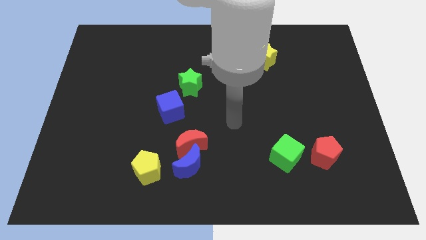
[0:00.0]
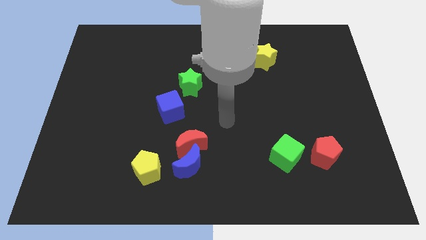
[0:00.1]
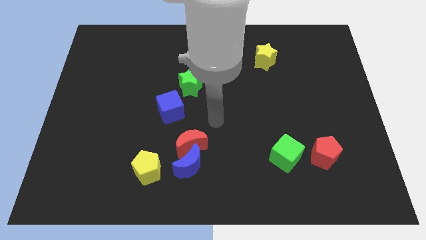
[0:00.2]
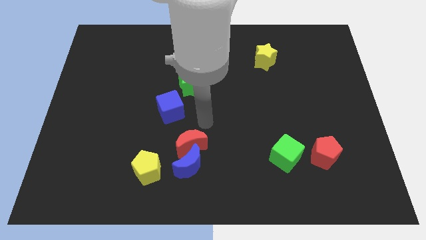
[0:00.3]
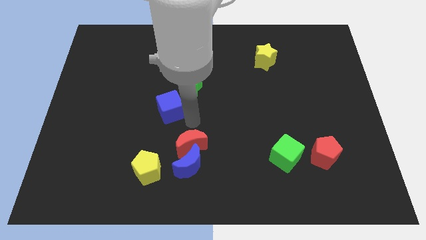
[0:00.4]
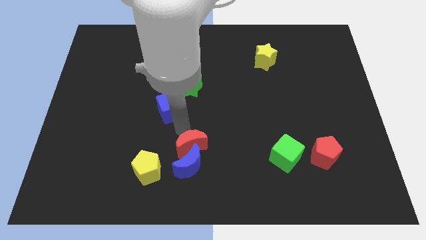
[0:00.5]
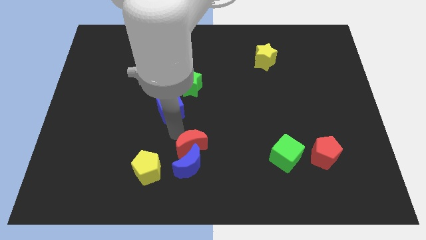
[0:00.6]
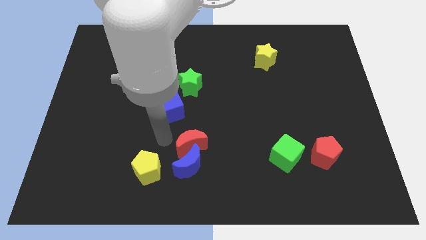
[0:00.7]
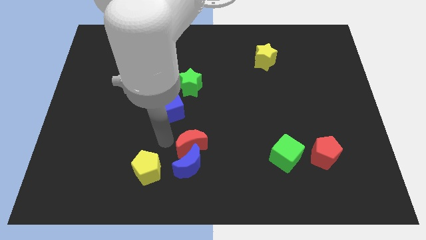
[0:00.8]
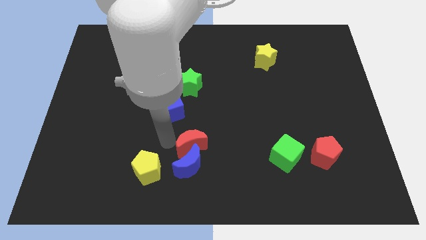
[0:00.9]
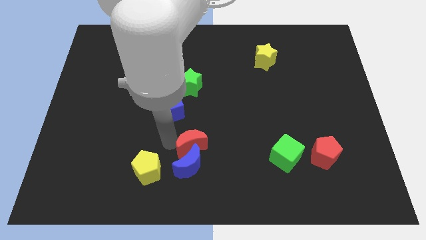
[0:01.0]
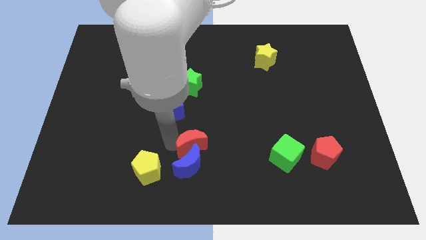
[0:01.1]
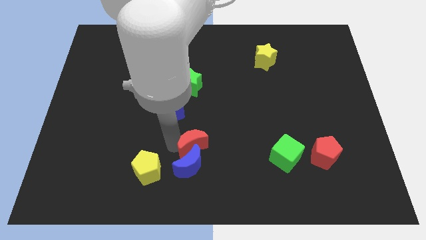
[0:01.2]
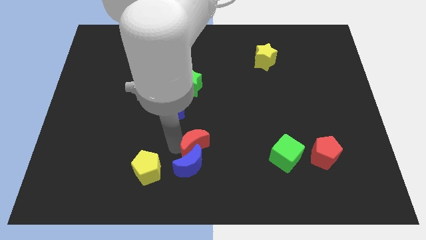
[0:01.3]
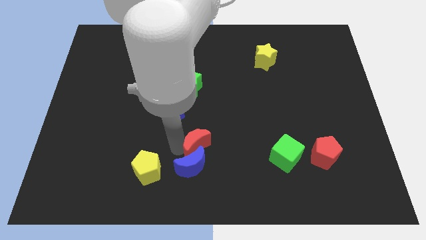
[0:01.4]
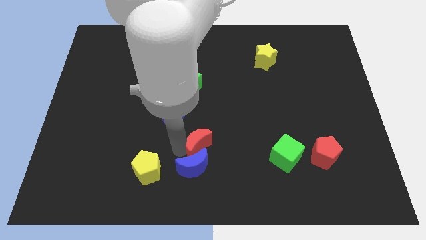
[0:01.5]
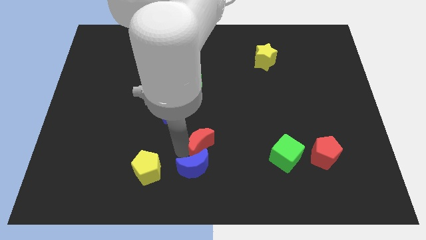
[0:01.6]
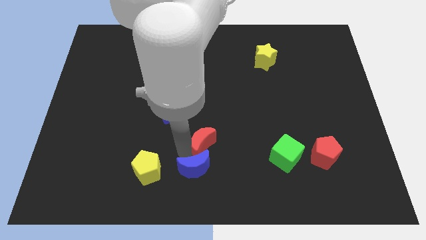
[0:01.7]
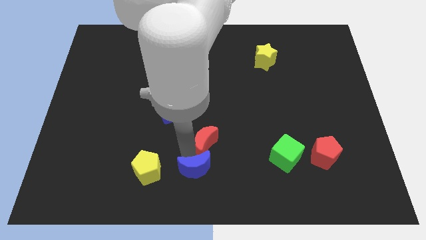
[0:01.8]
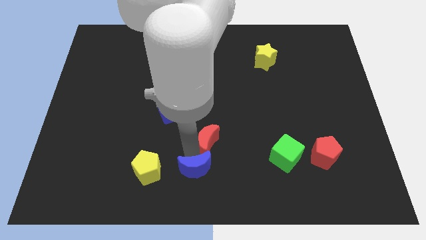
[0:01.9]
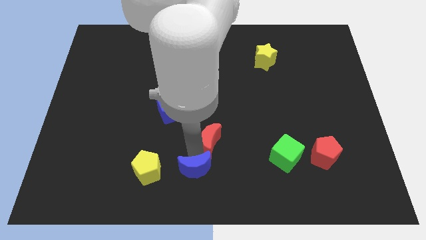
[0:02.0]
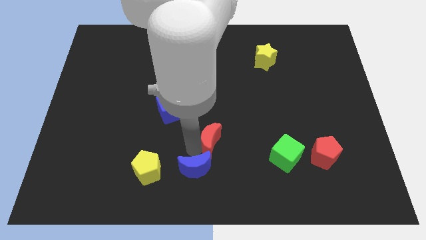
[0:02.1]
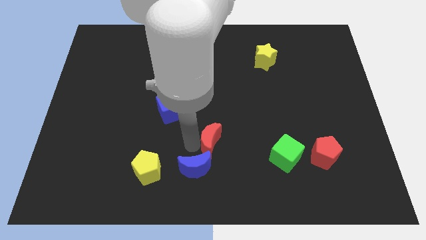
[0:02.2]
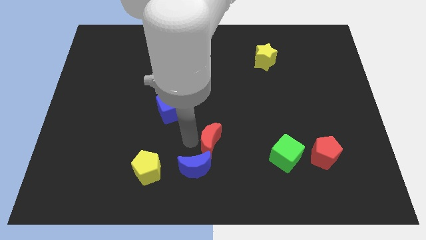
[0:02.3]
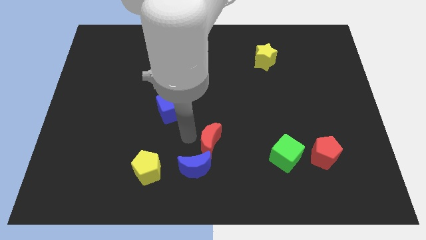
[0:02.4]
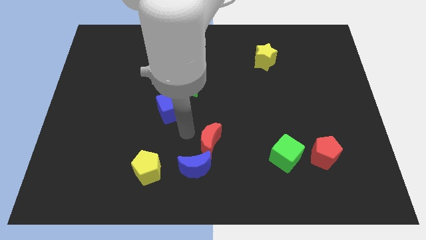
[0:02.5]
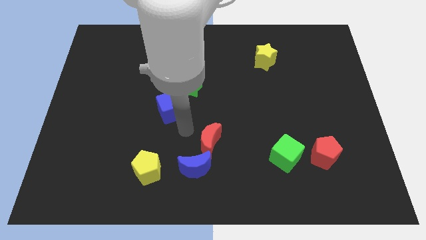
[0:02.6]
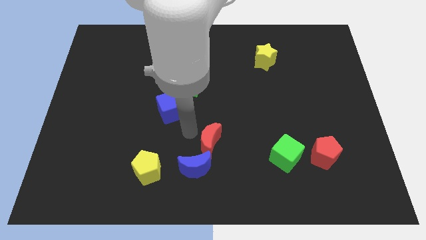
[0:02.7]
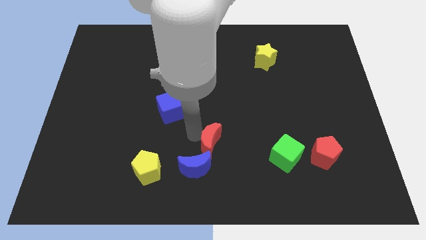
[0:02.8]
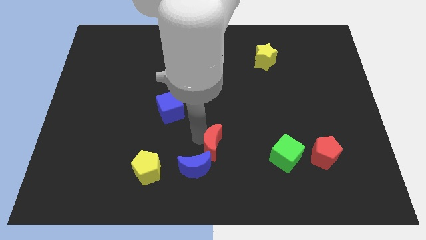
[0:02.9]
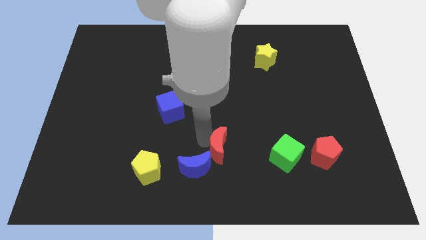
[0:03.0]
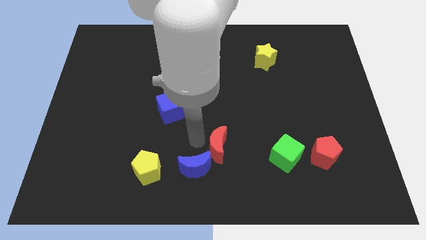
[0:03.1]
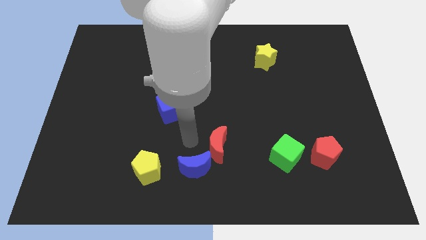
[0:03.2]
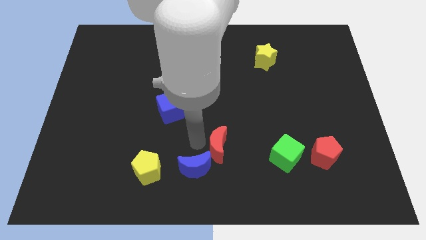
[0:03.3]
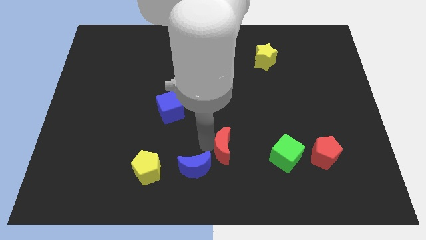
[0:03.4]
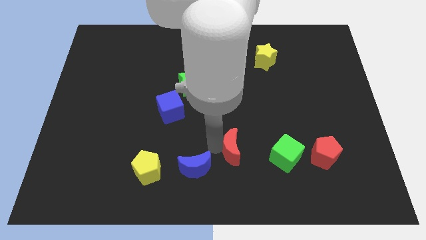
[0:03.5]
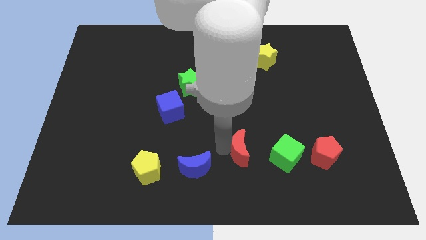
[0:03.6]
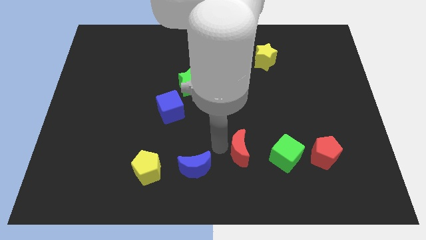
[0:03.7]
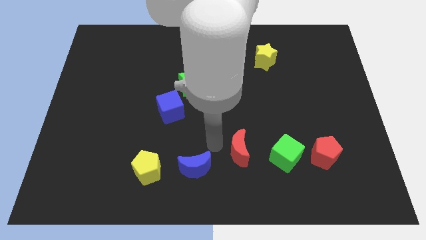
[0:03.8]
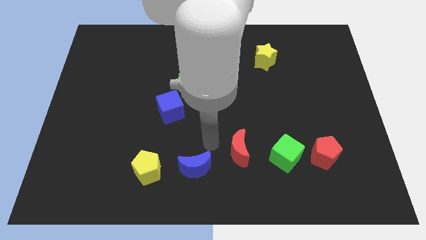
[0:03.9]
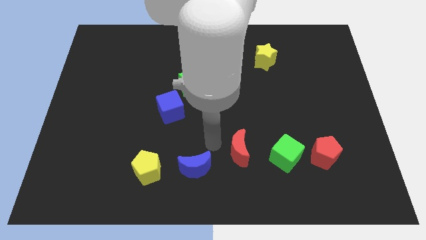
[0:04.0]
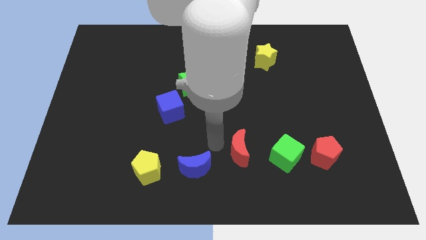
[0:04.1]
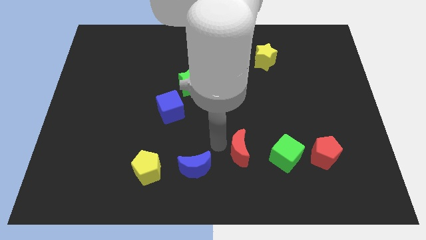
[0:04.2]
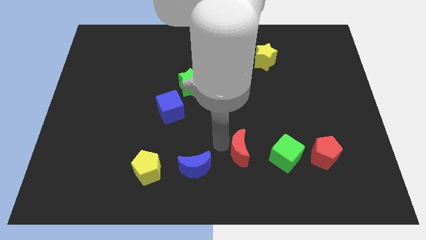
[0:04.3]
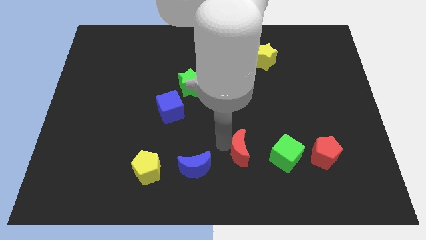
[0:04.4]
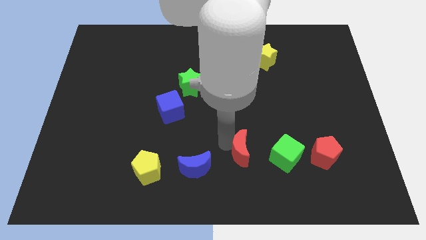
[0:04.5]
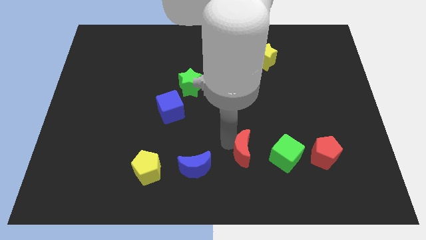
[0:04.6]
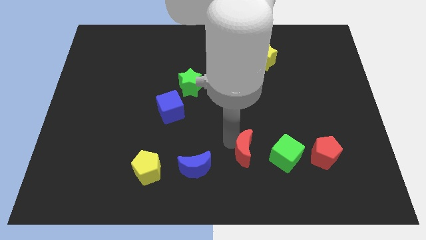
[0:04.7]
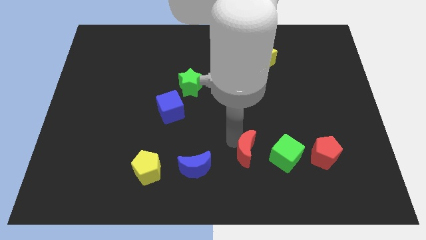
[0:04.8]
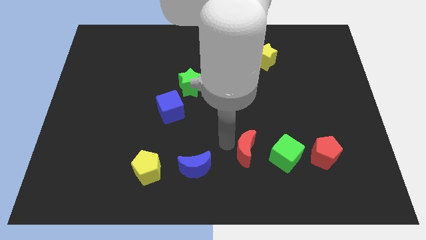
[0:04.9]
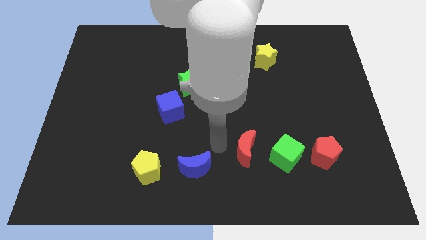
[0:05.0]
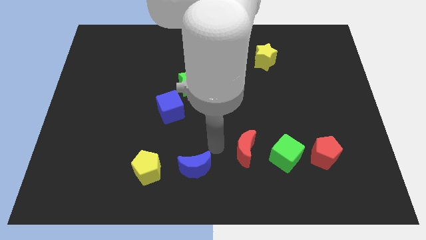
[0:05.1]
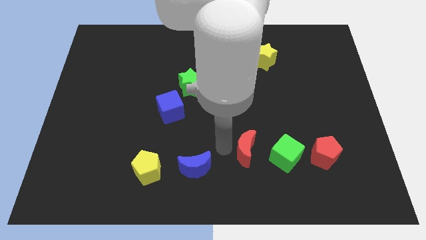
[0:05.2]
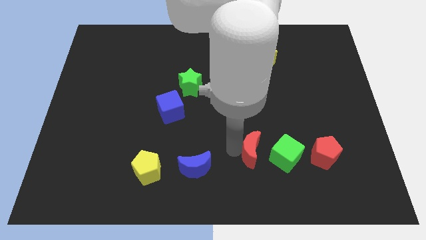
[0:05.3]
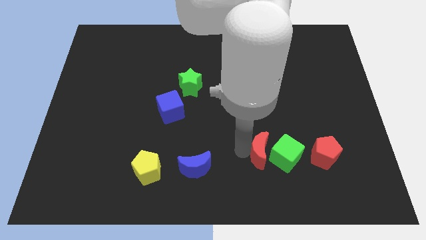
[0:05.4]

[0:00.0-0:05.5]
slide the red moon to the green cube

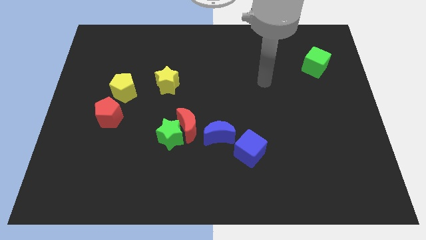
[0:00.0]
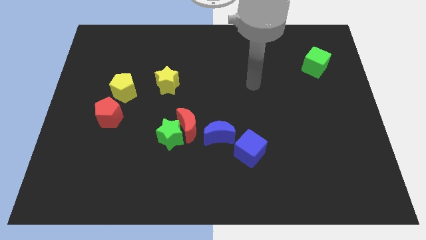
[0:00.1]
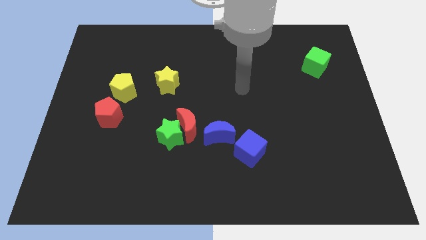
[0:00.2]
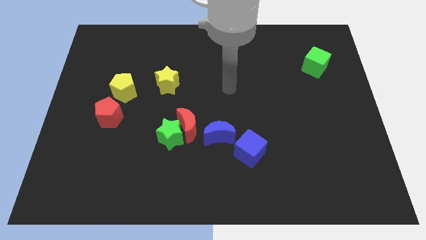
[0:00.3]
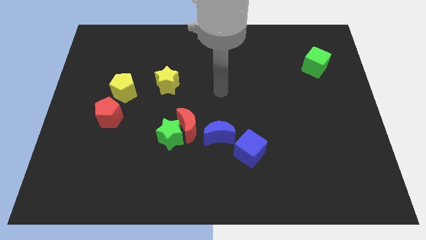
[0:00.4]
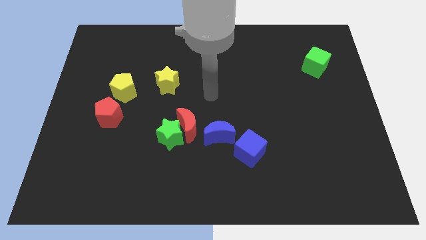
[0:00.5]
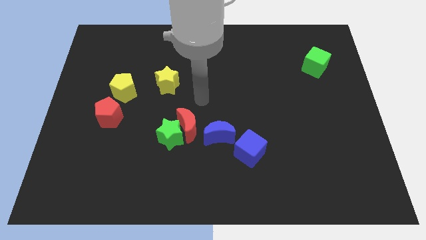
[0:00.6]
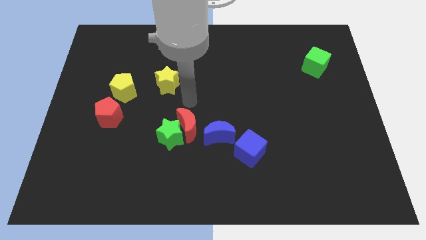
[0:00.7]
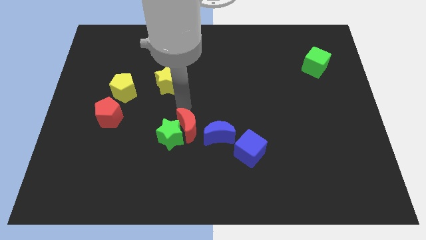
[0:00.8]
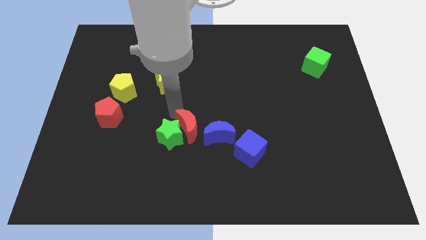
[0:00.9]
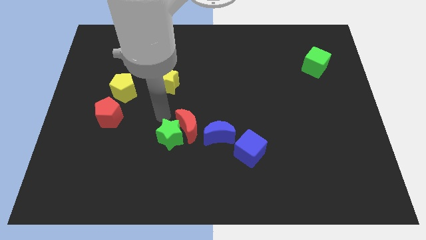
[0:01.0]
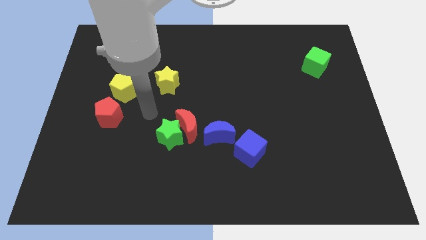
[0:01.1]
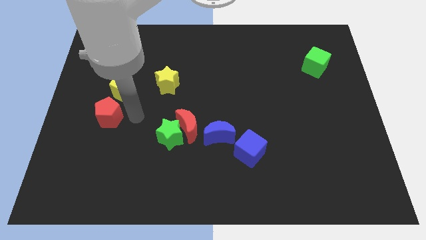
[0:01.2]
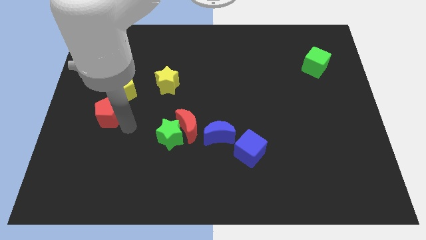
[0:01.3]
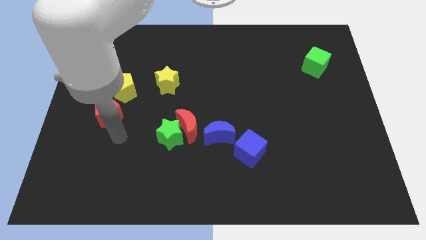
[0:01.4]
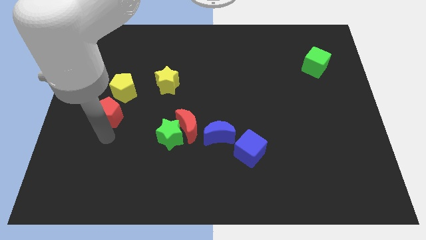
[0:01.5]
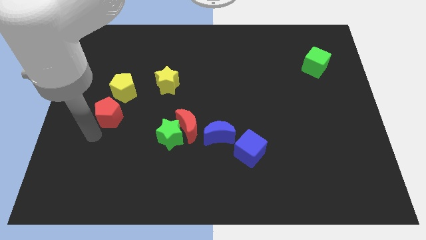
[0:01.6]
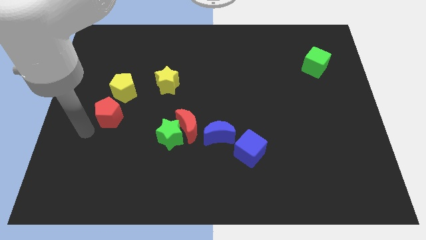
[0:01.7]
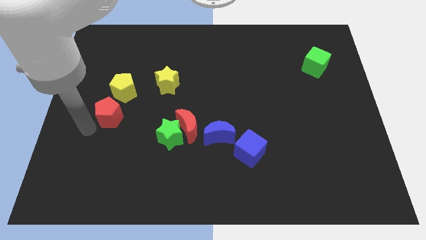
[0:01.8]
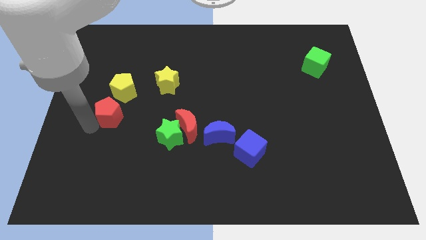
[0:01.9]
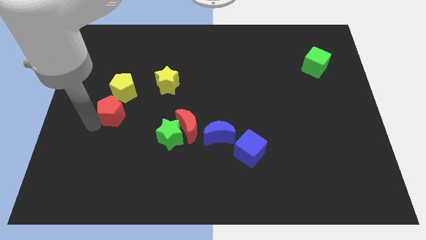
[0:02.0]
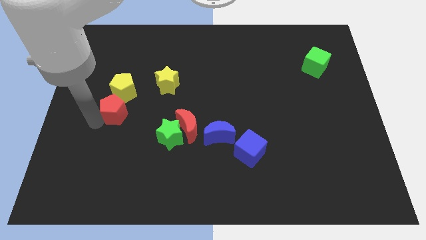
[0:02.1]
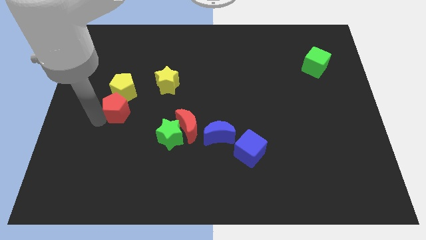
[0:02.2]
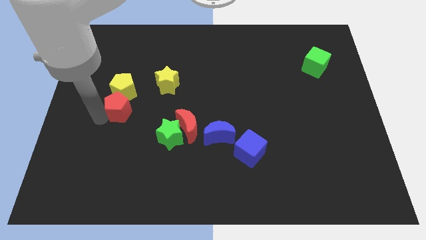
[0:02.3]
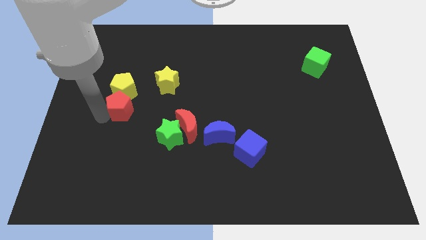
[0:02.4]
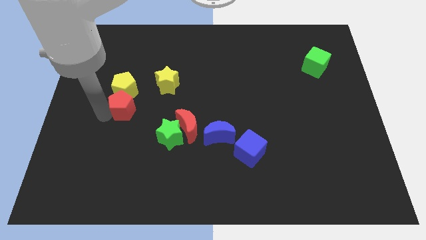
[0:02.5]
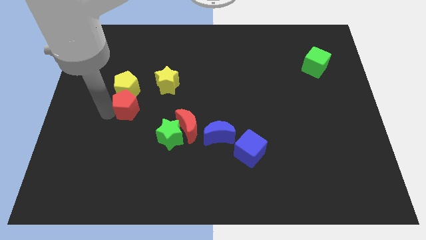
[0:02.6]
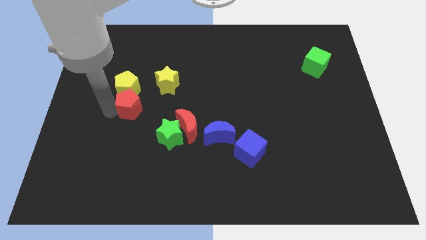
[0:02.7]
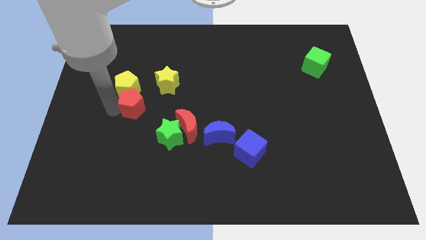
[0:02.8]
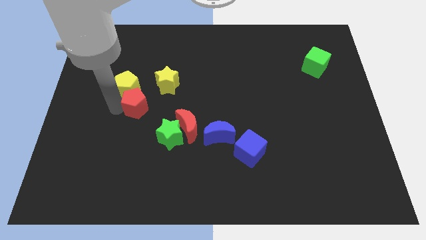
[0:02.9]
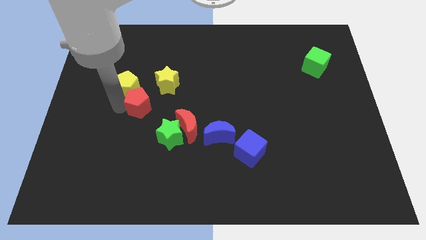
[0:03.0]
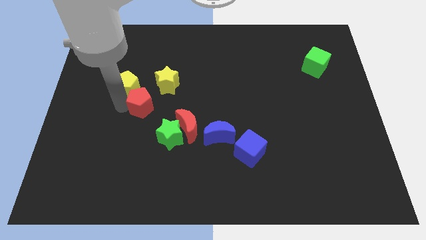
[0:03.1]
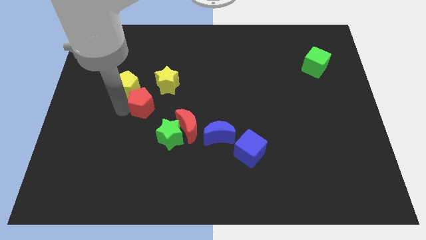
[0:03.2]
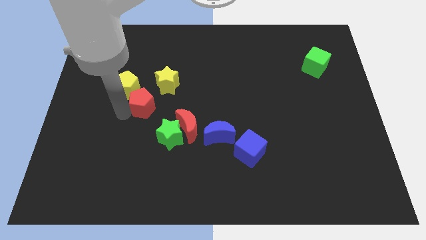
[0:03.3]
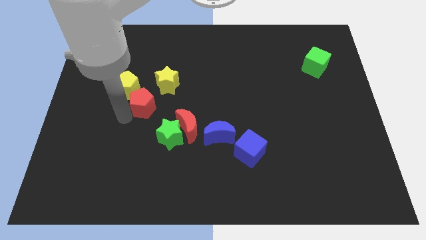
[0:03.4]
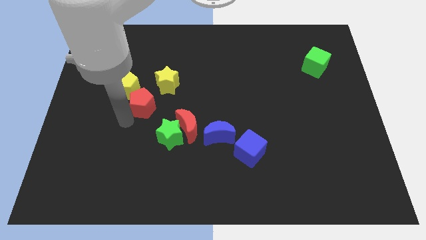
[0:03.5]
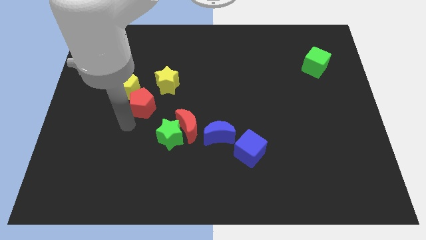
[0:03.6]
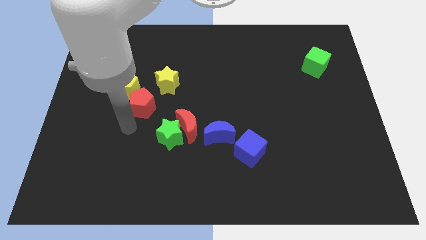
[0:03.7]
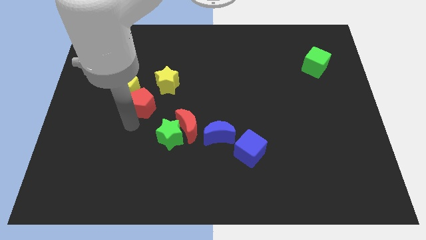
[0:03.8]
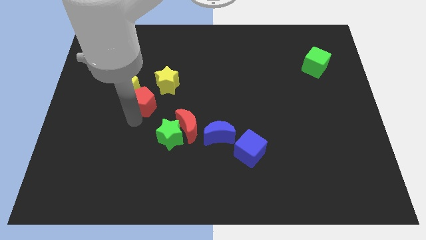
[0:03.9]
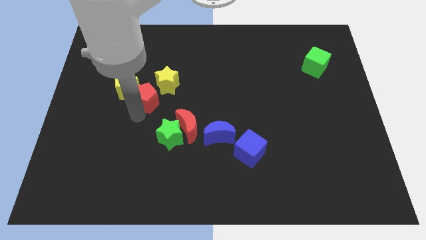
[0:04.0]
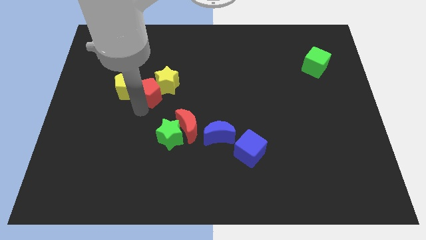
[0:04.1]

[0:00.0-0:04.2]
slide the red pentagon next to the yellow star
